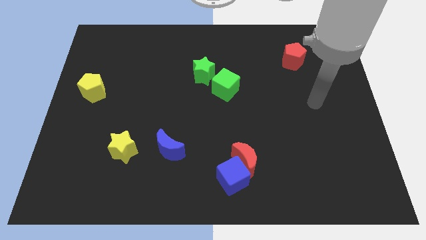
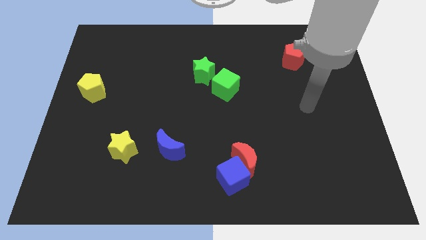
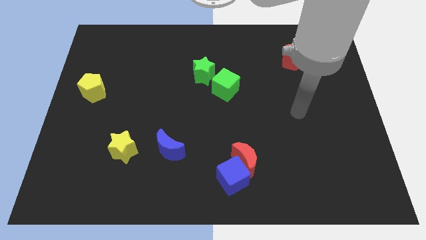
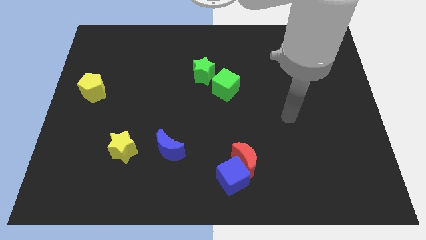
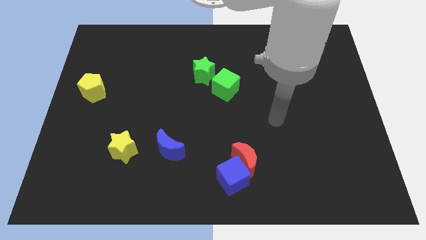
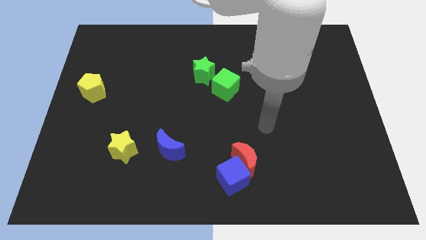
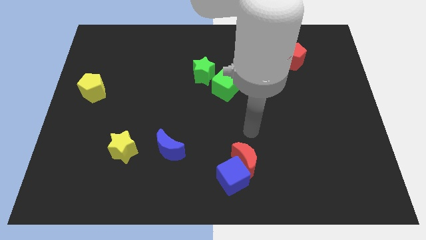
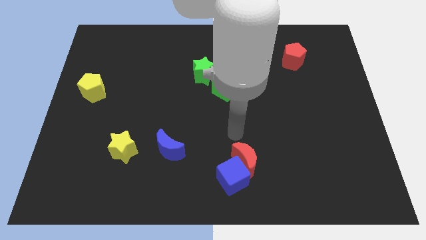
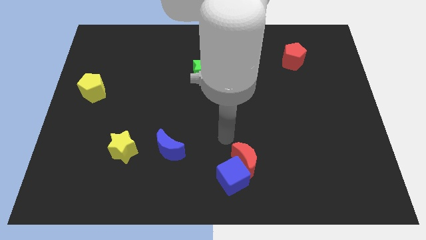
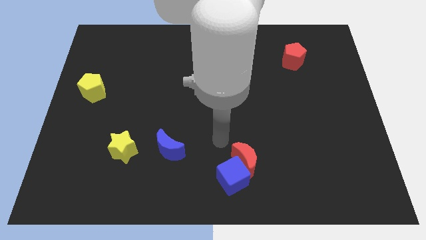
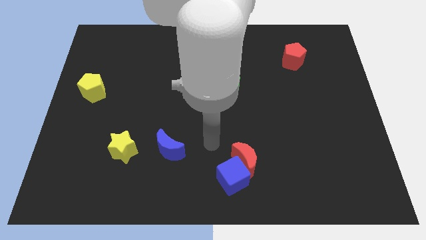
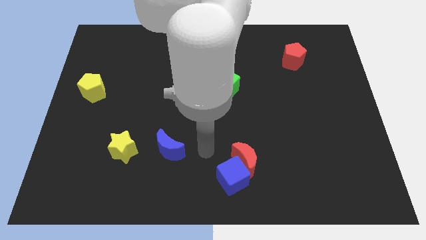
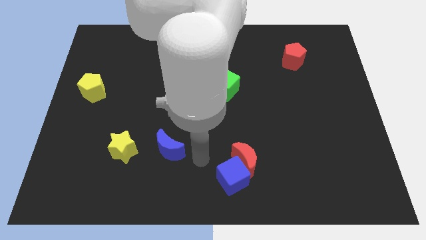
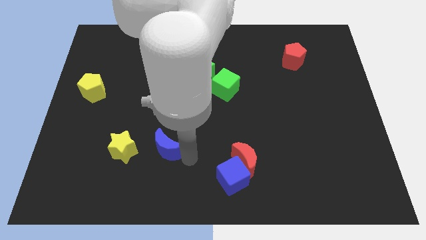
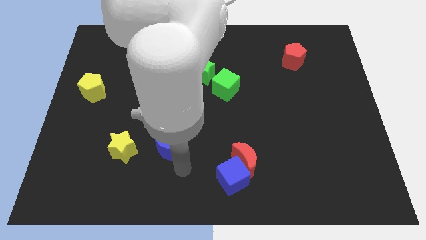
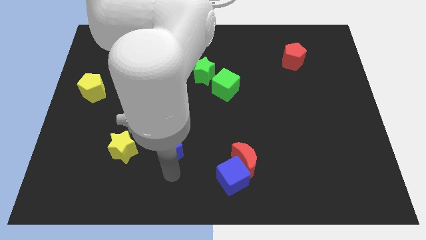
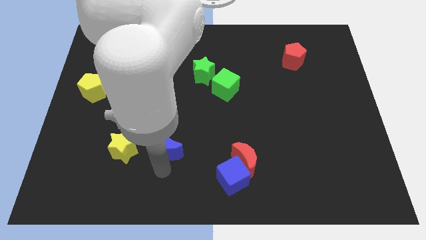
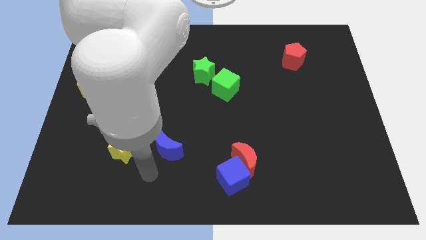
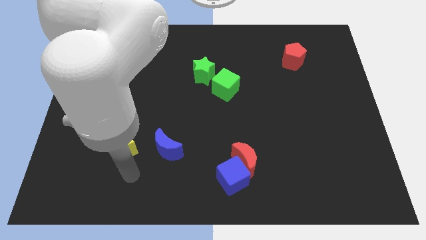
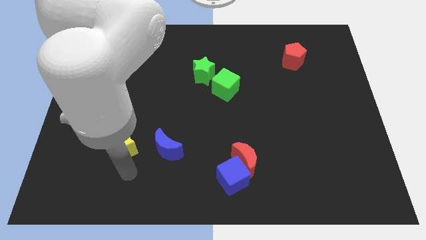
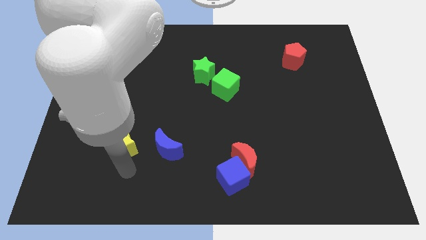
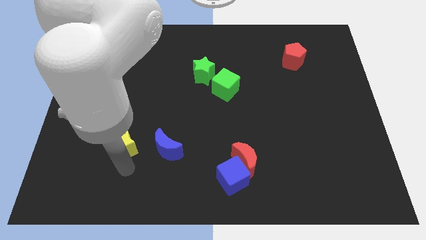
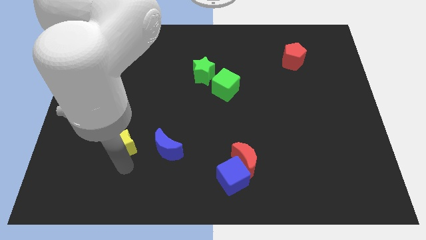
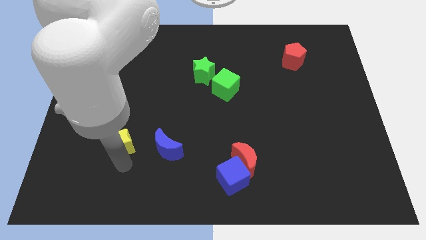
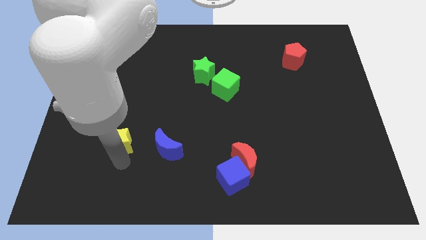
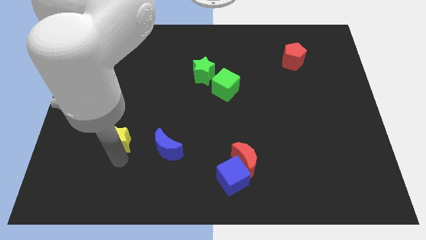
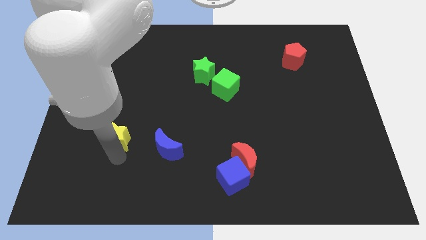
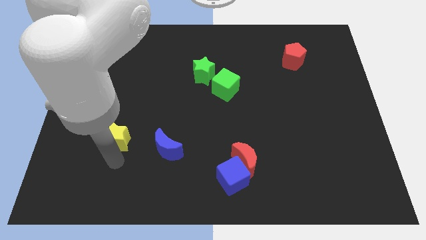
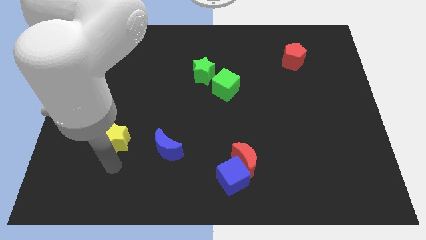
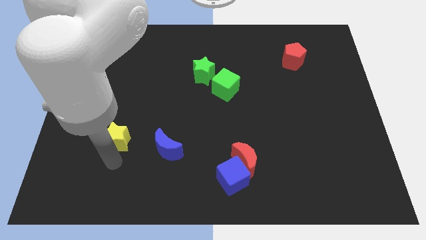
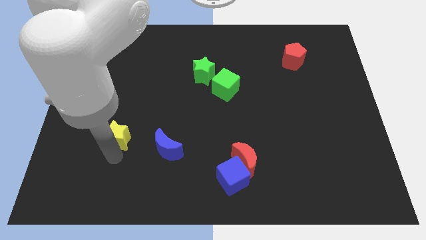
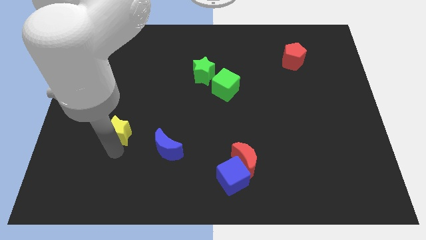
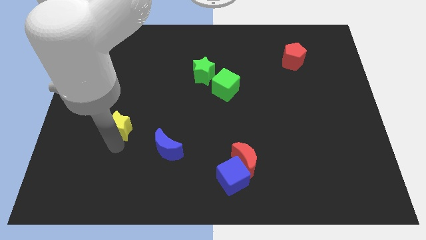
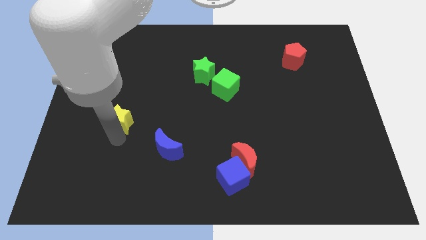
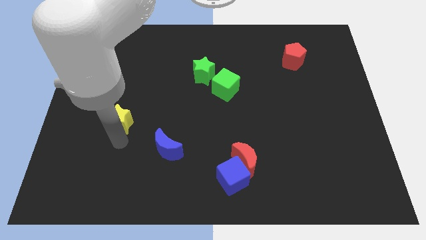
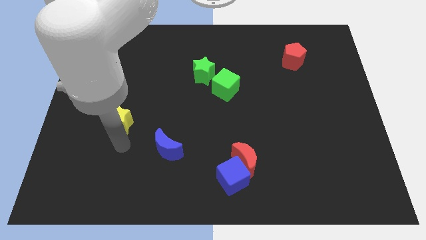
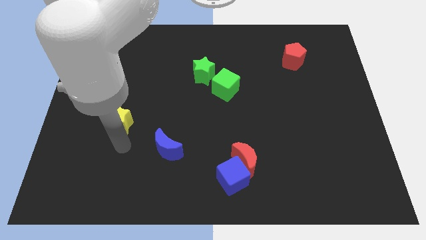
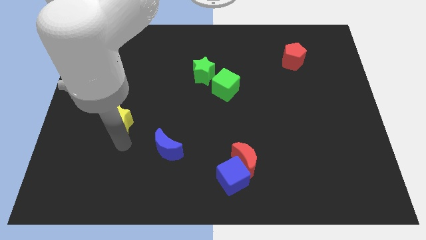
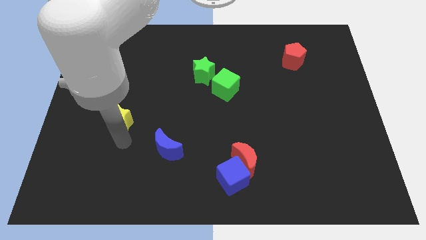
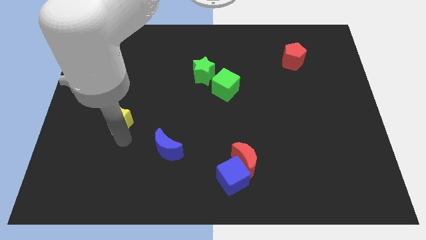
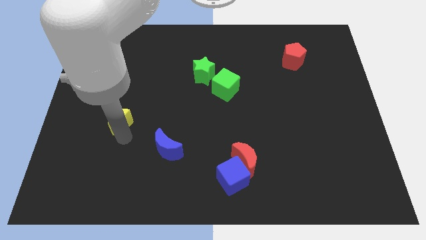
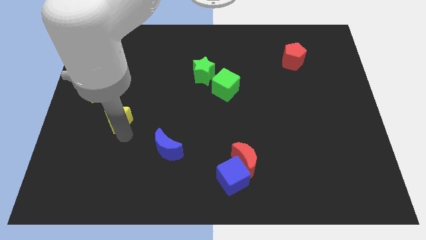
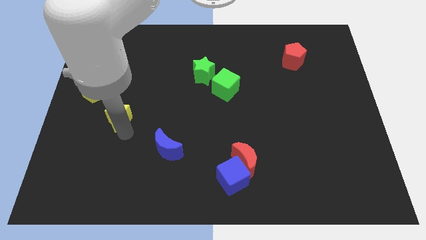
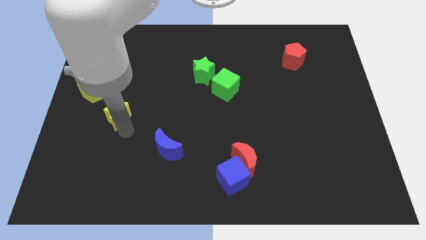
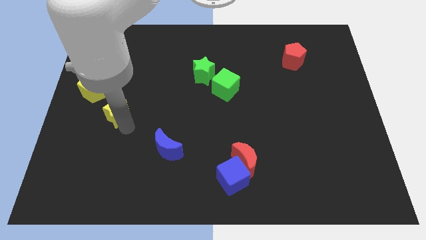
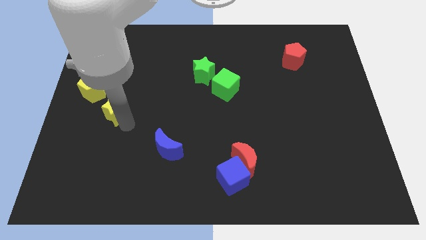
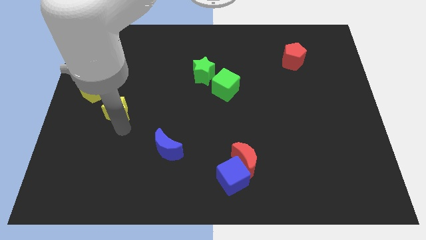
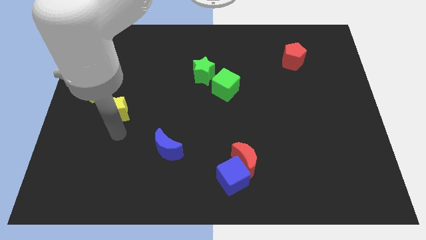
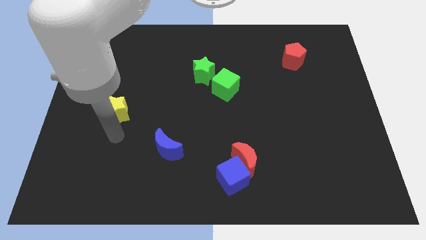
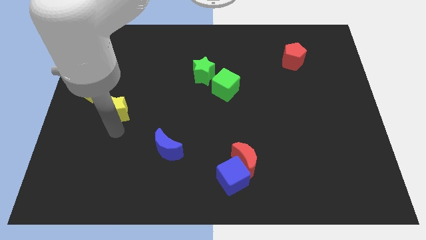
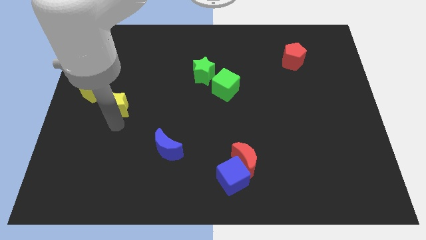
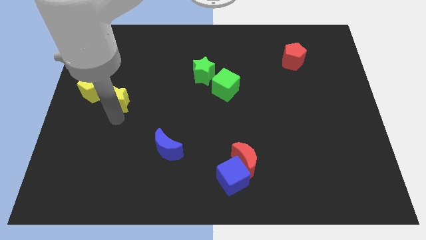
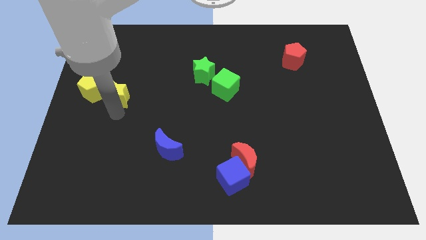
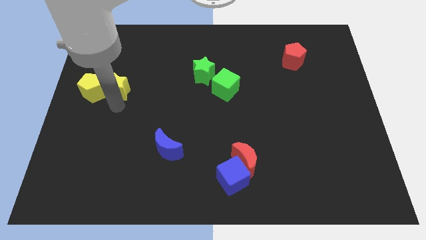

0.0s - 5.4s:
put the yellow star to the top right side of the yellow pentagon

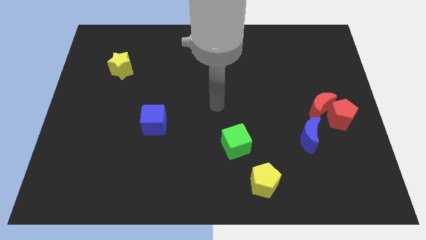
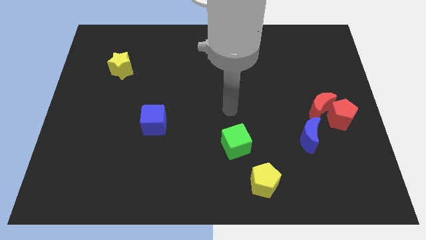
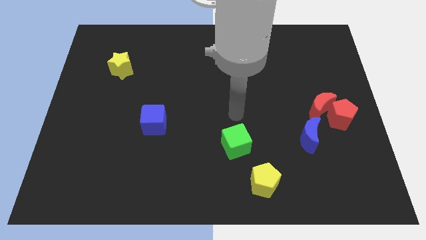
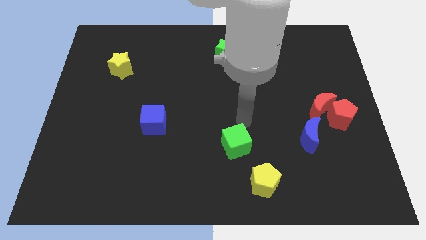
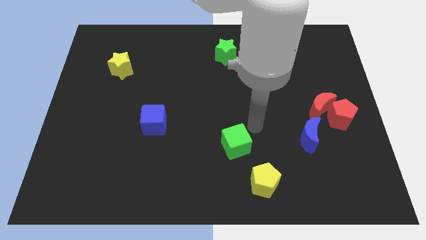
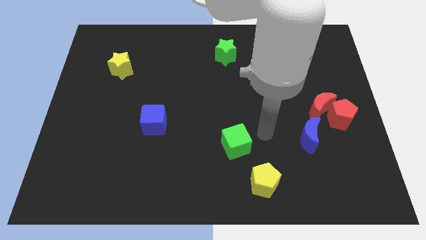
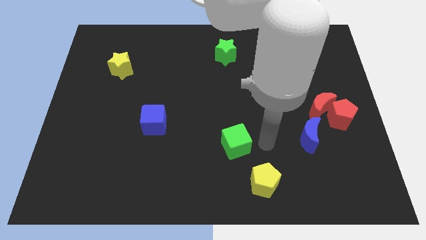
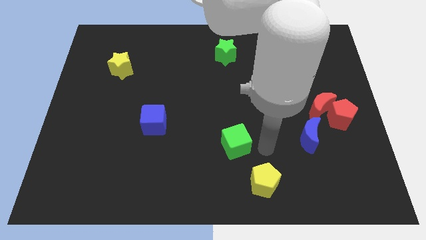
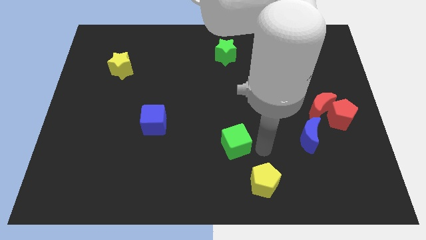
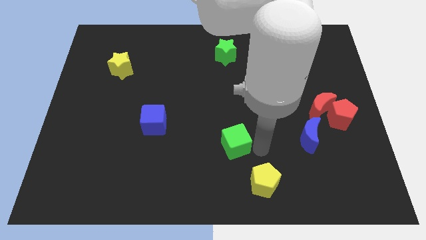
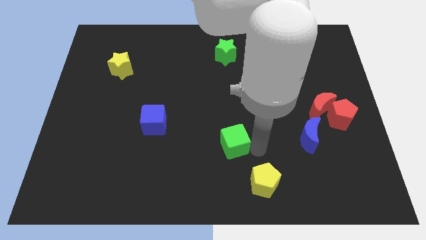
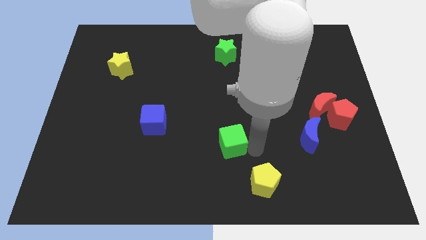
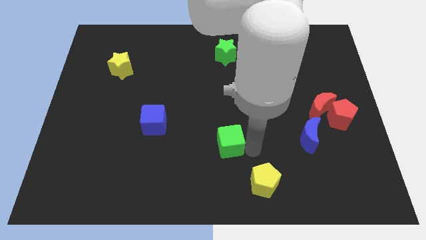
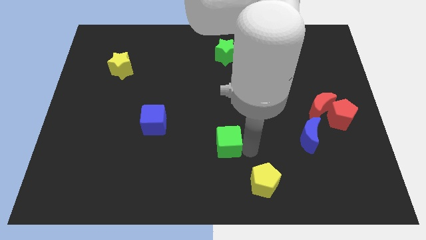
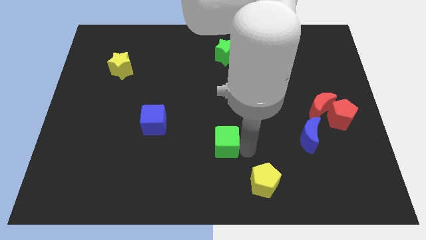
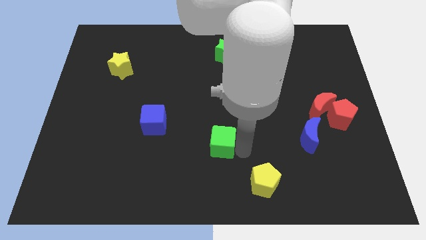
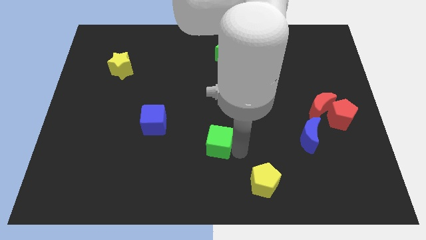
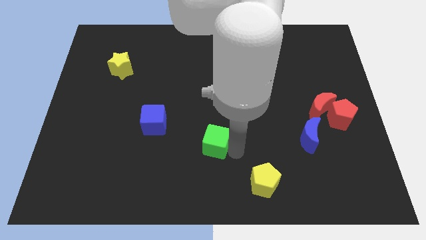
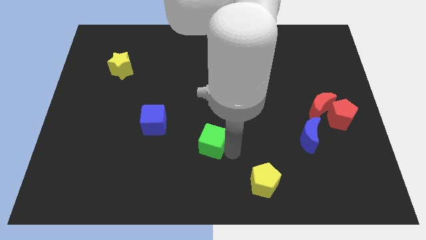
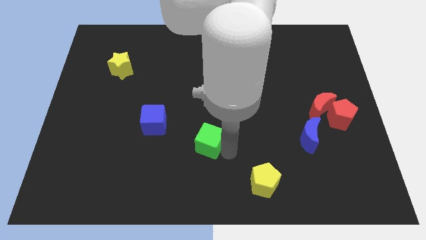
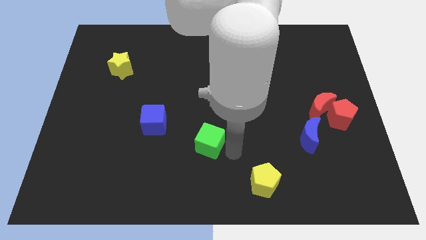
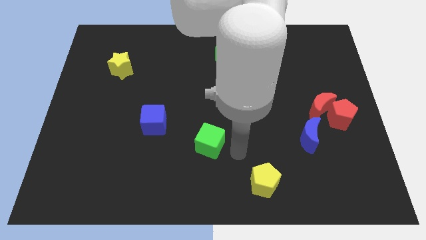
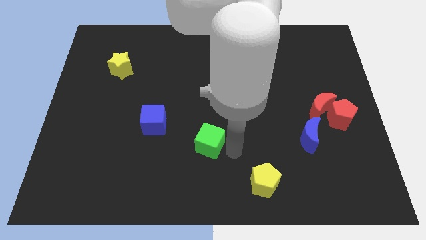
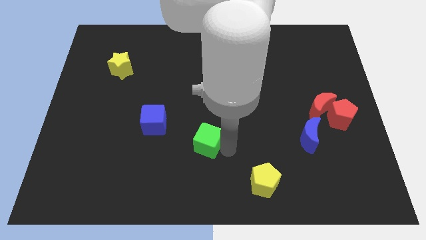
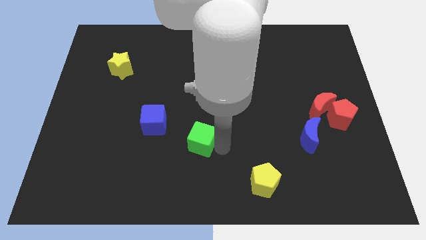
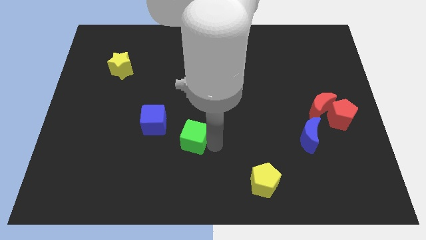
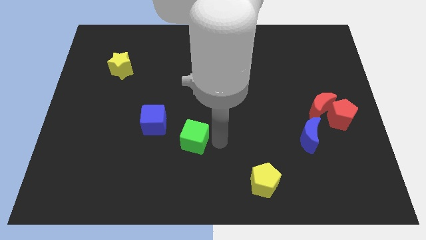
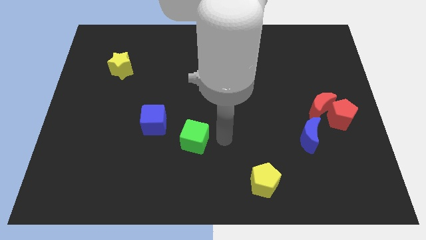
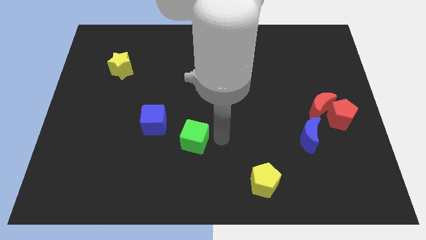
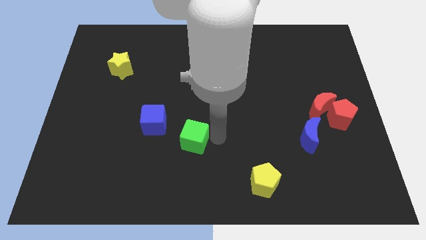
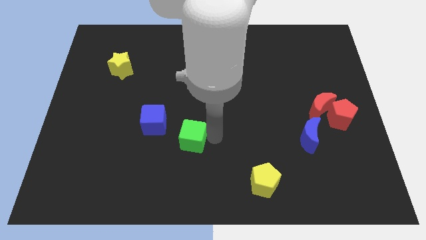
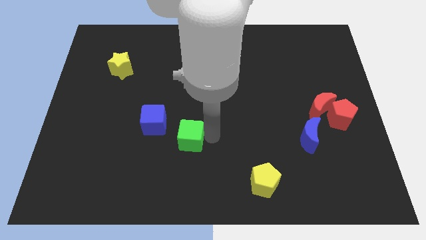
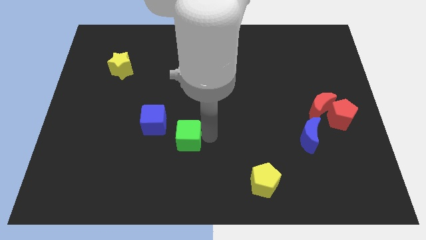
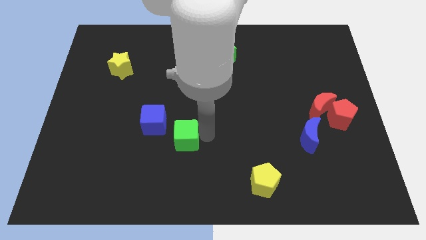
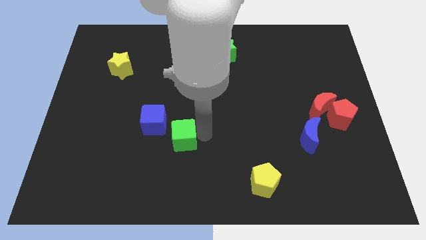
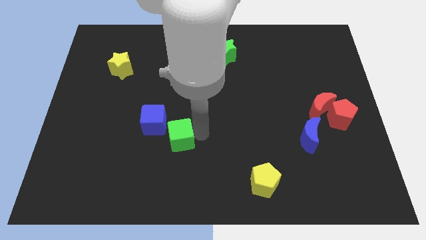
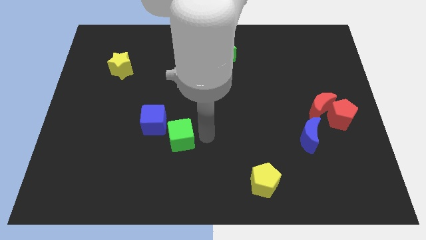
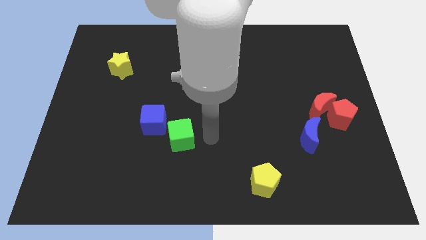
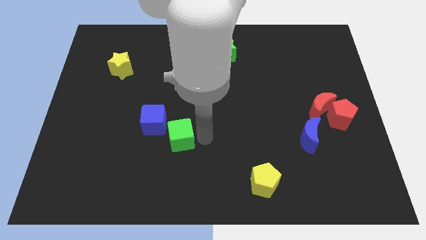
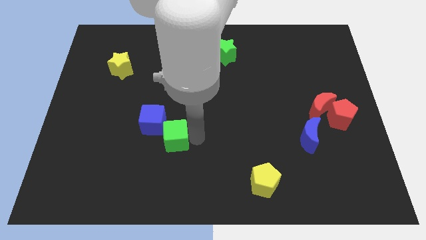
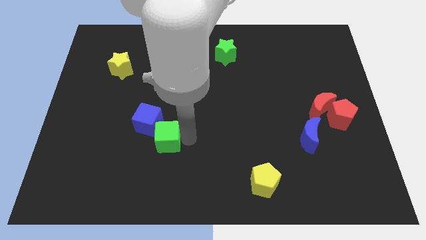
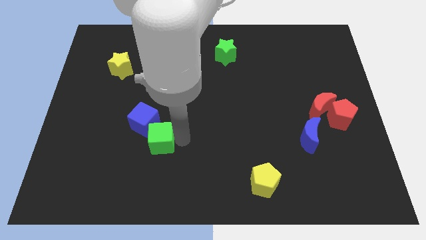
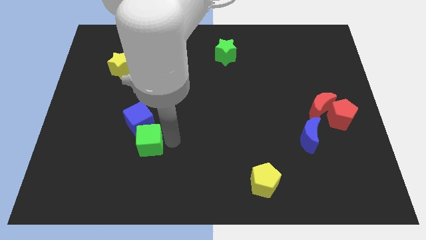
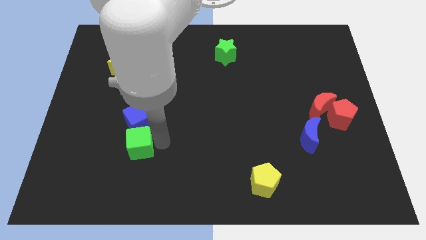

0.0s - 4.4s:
move the green cube to the bottom left of the blue cube
